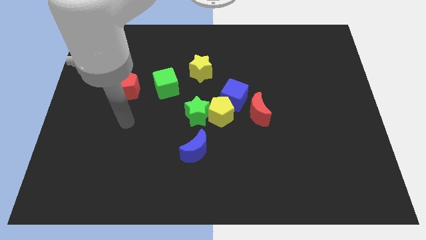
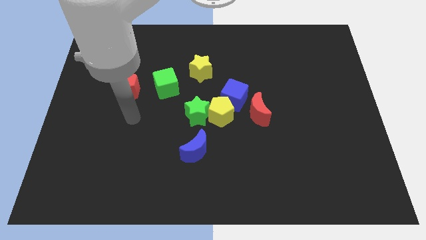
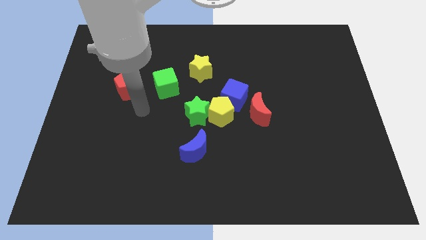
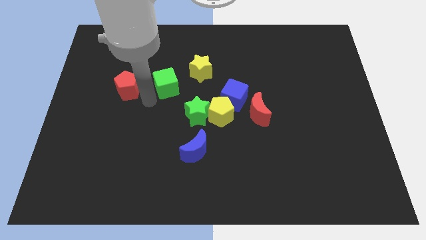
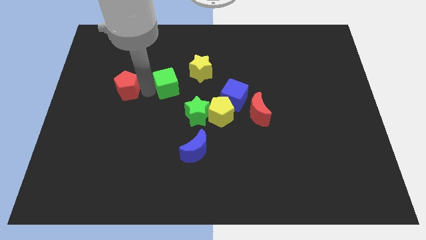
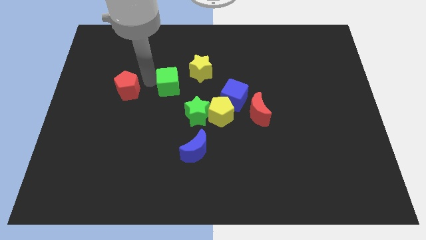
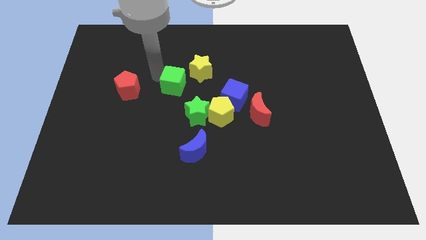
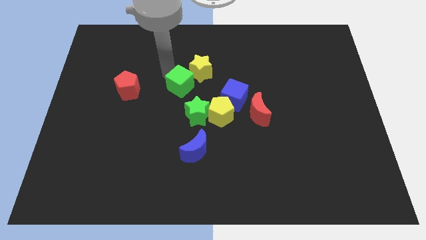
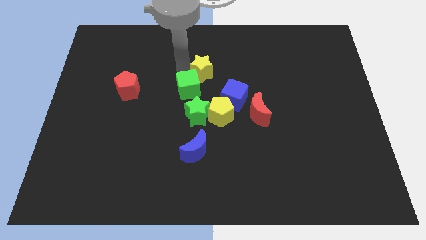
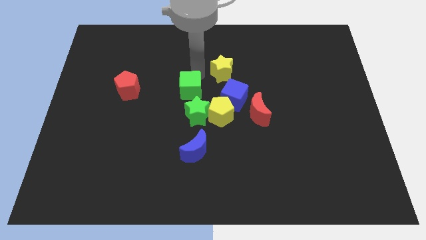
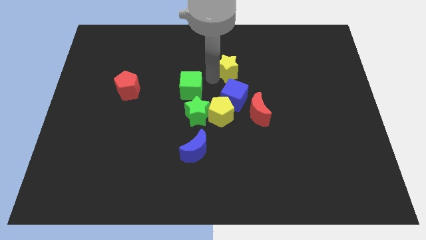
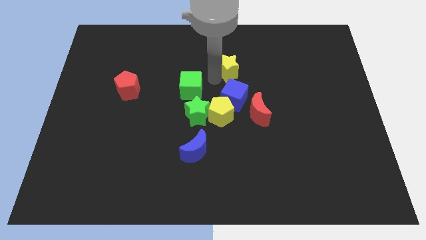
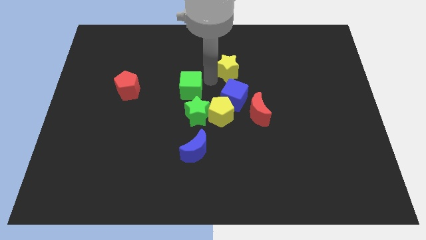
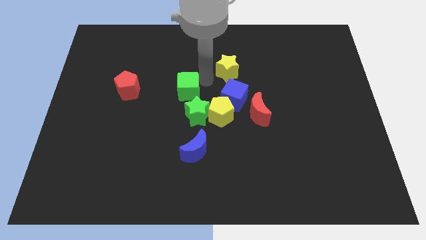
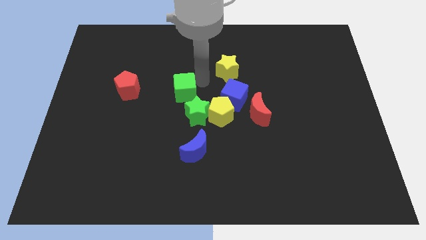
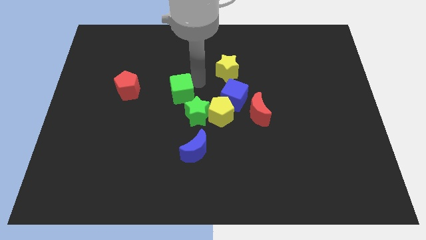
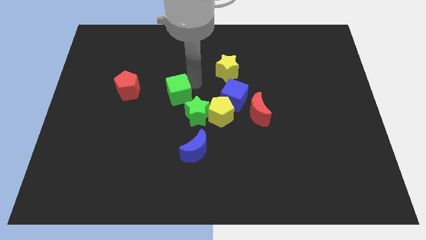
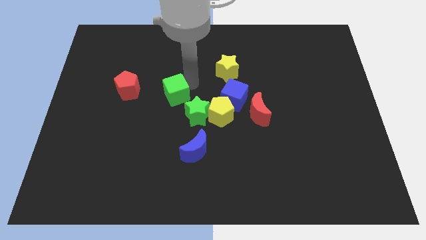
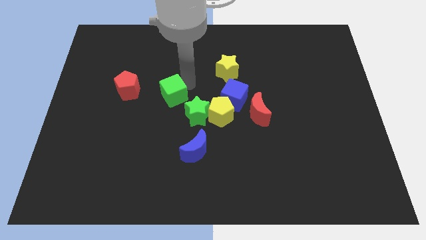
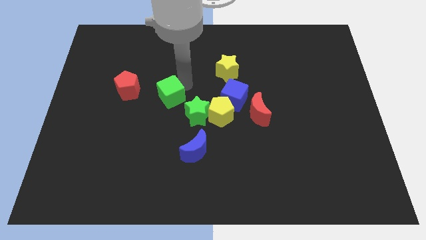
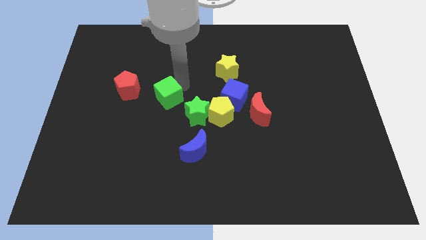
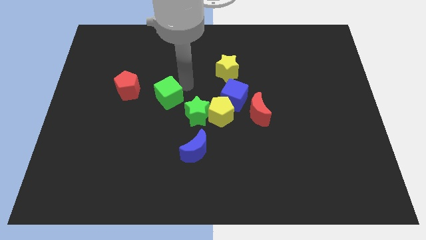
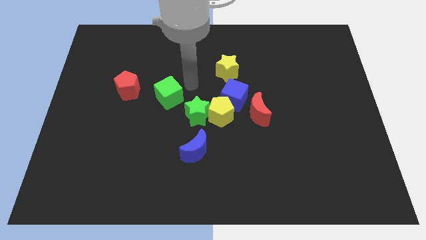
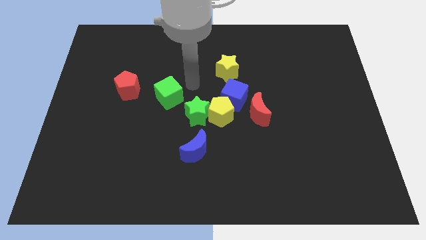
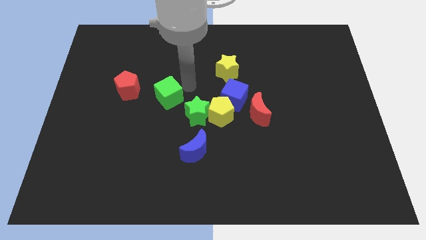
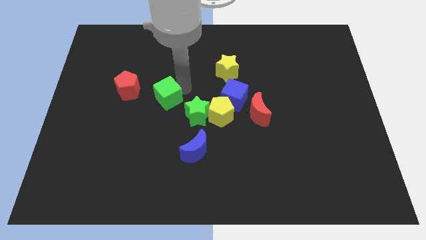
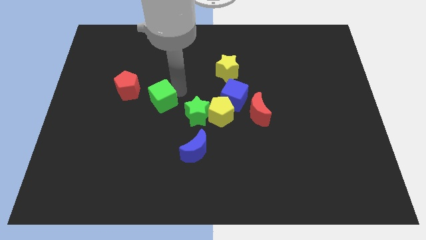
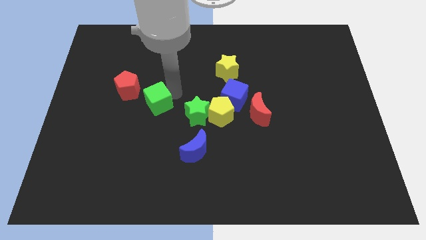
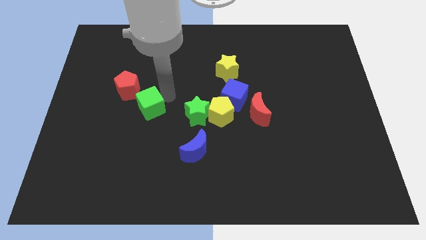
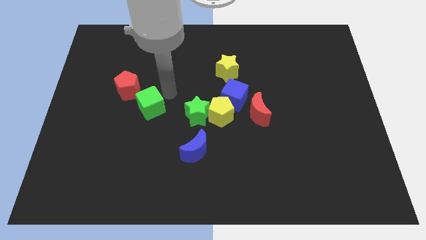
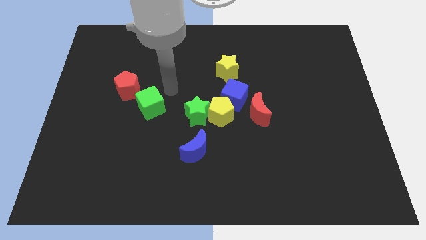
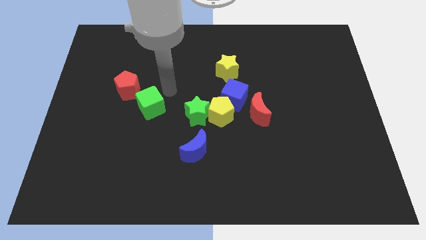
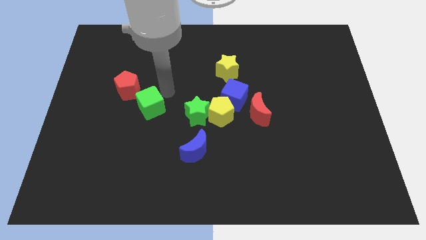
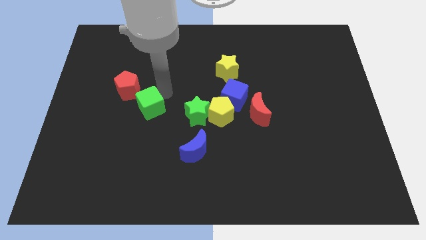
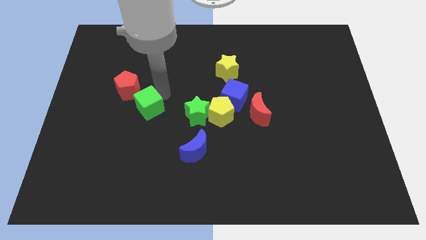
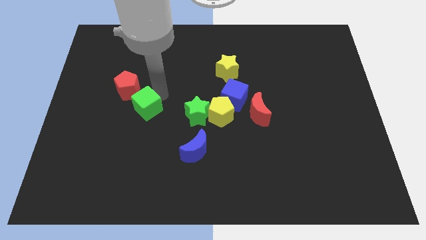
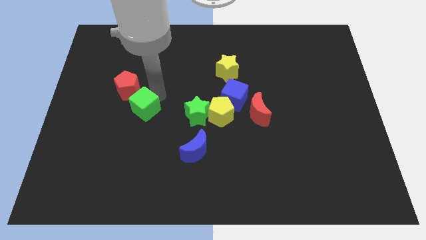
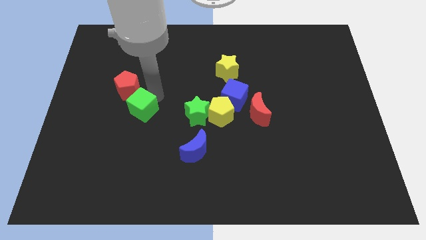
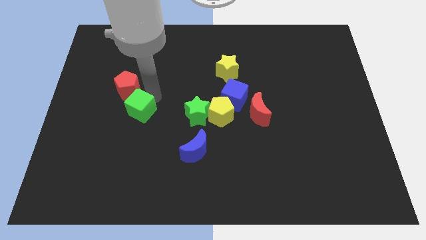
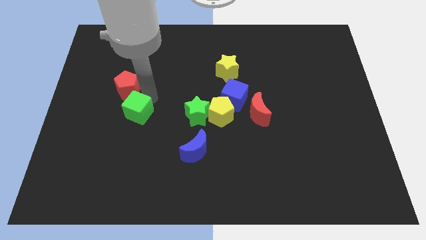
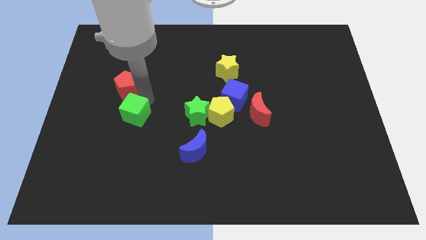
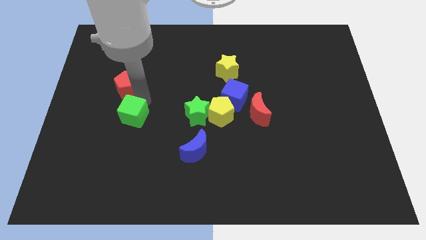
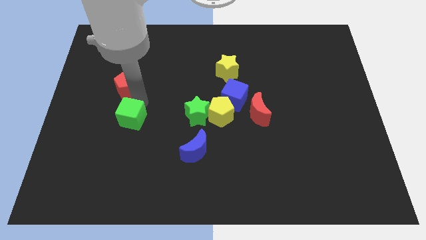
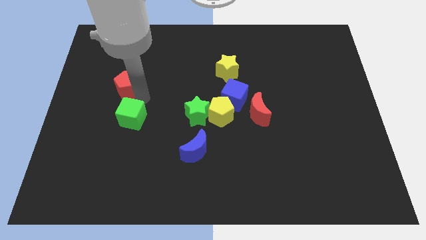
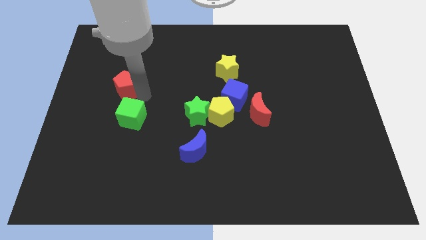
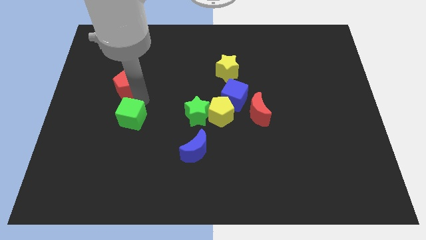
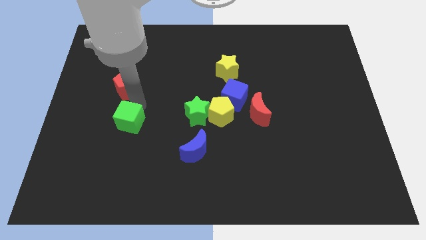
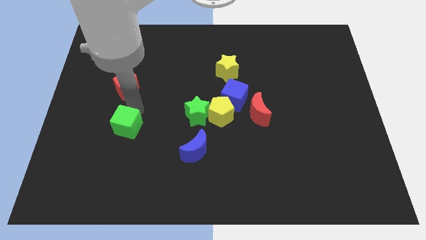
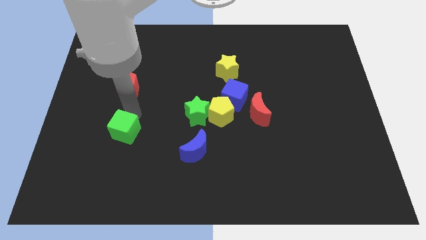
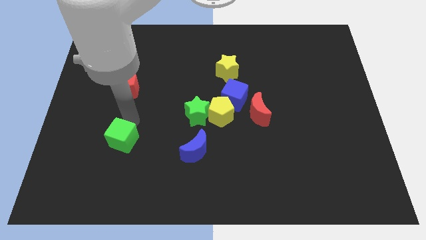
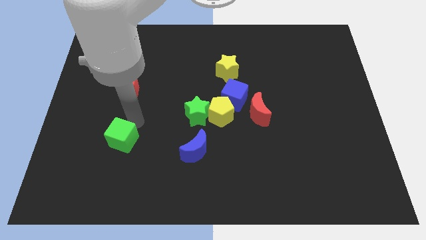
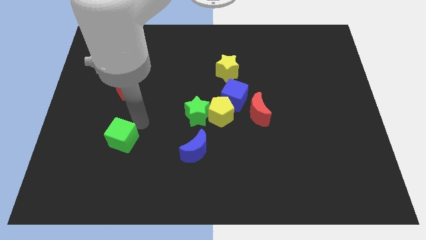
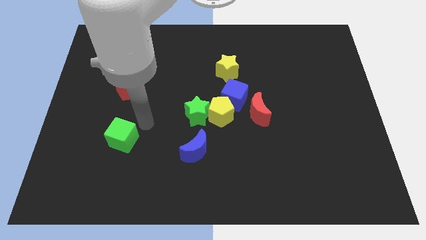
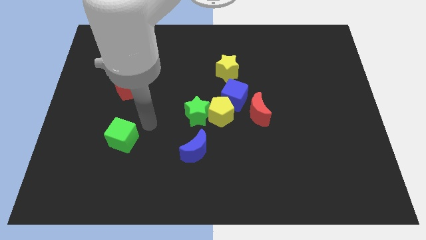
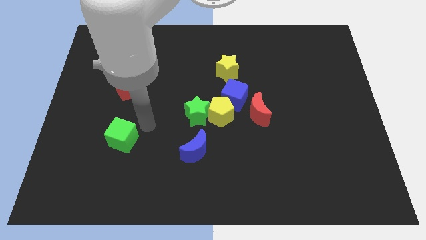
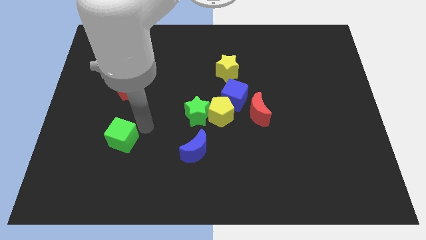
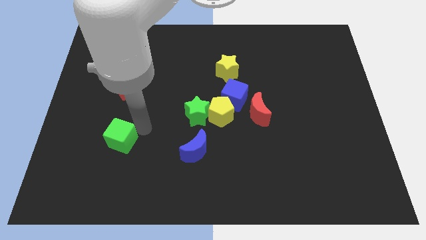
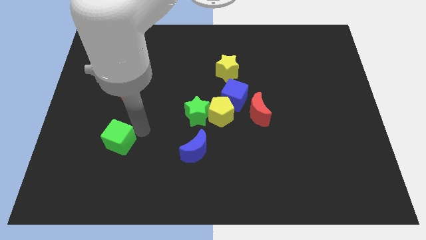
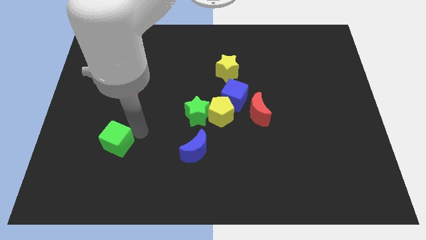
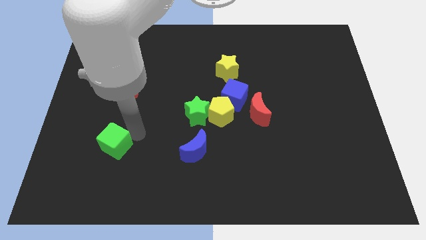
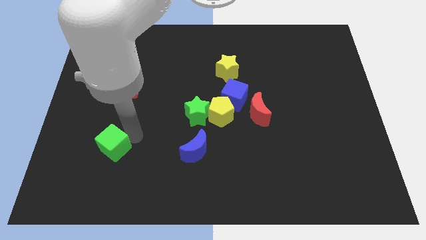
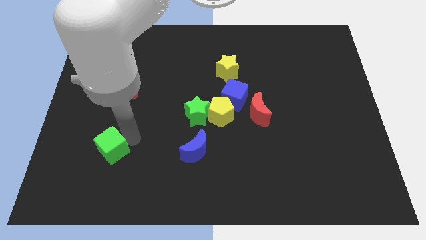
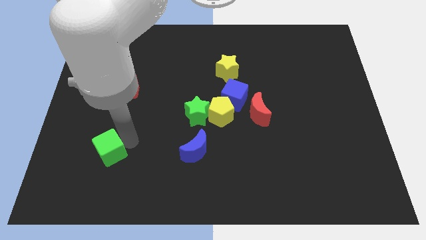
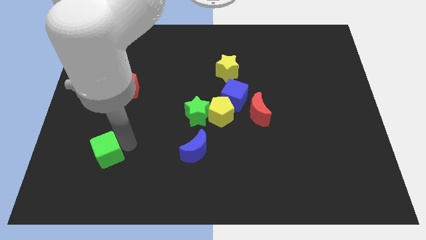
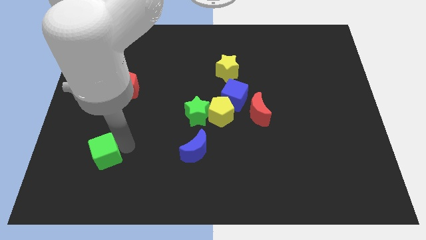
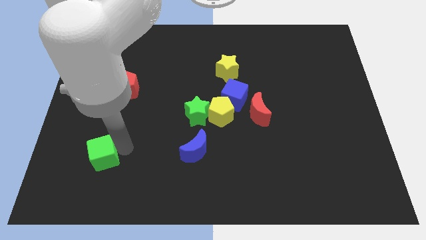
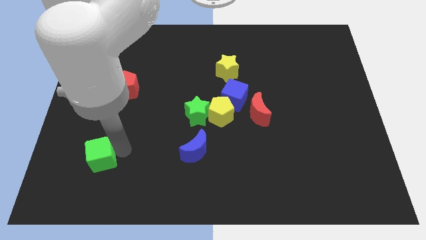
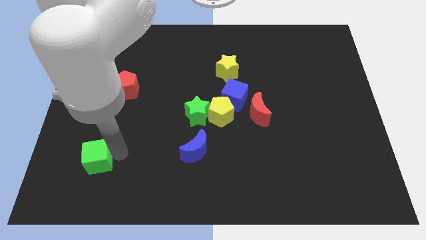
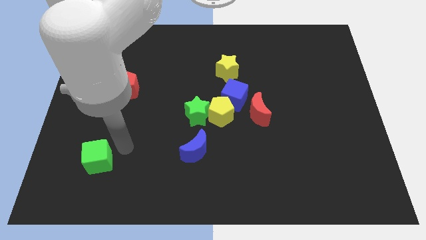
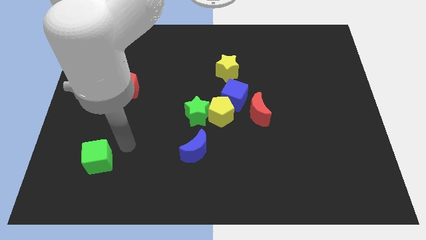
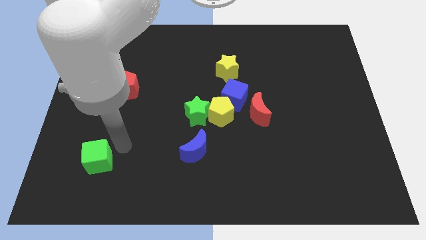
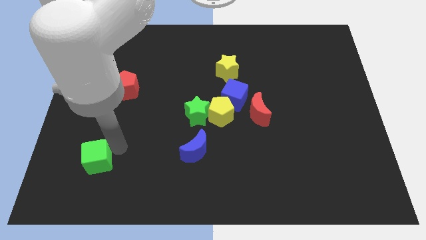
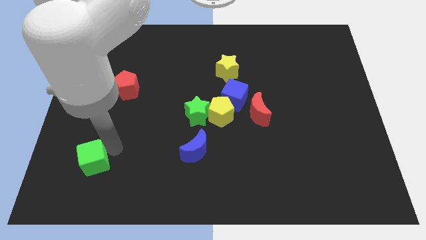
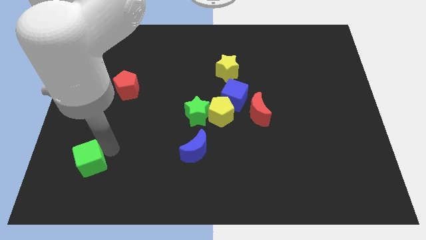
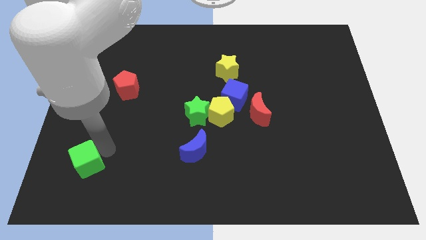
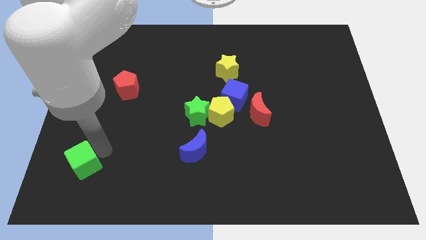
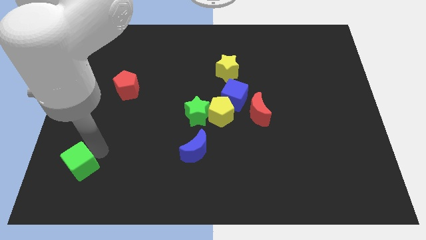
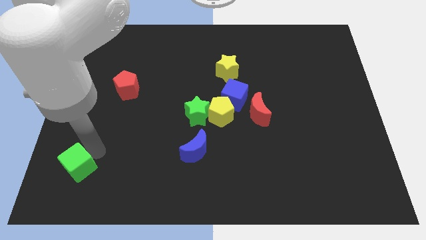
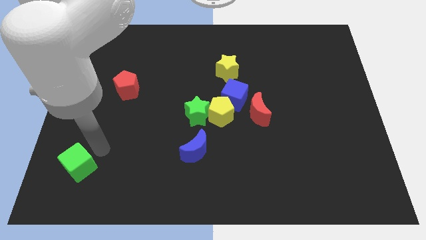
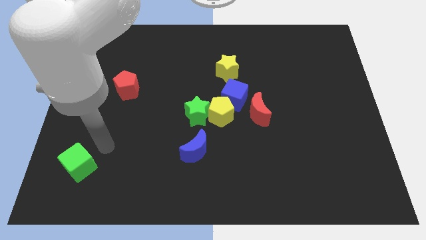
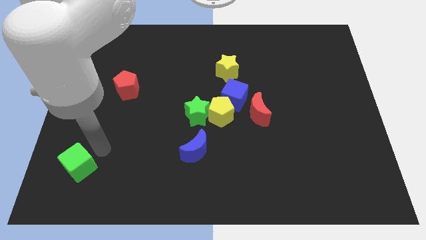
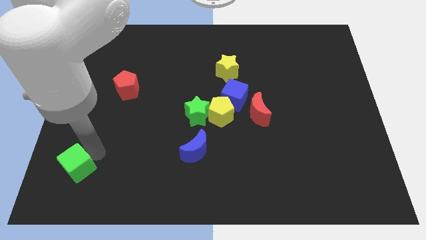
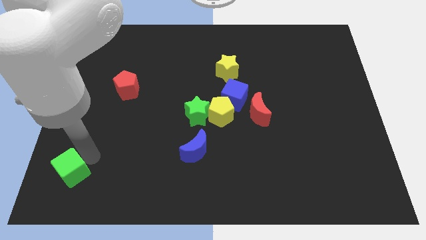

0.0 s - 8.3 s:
slide the green cube to the lower left corner

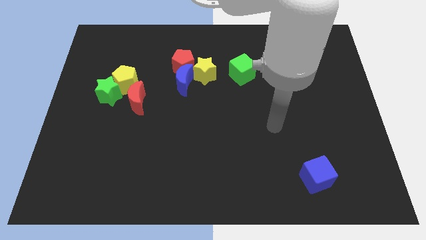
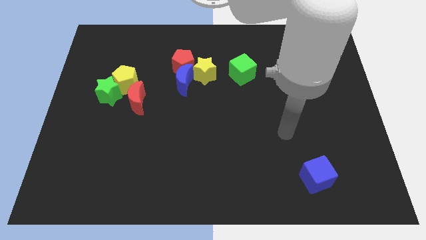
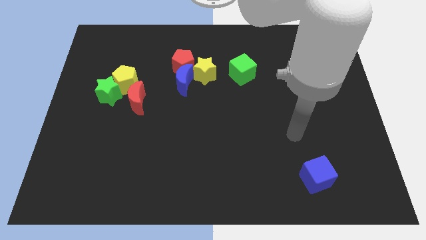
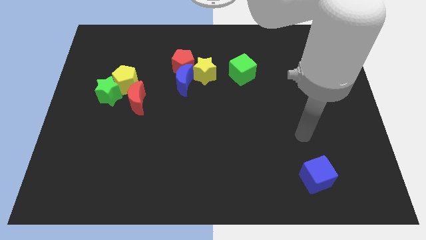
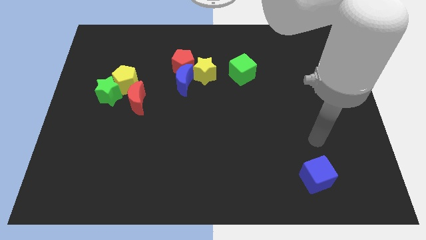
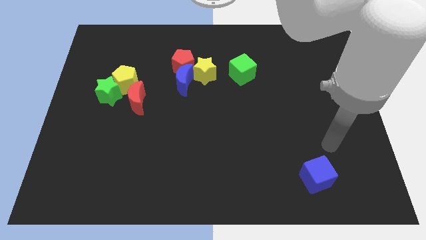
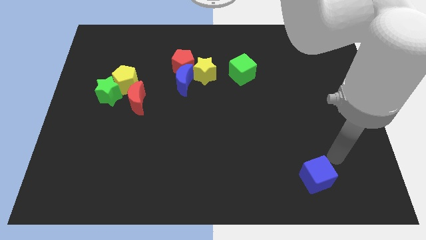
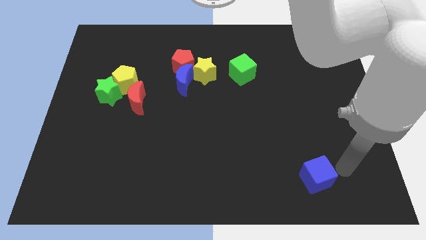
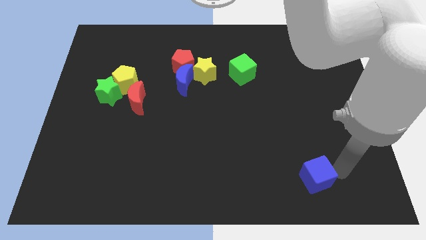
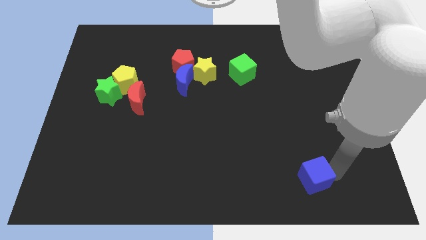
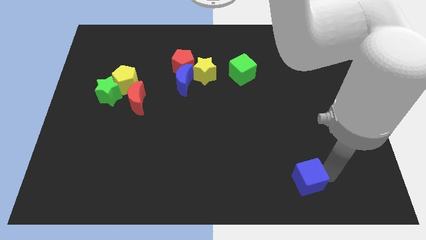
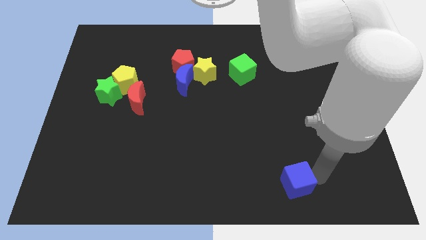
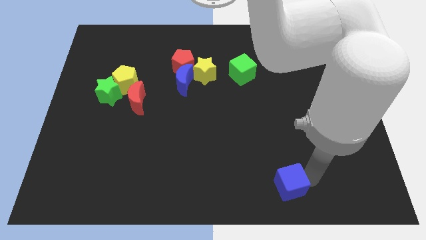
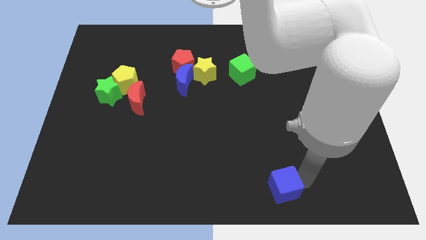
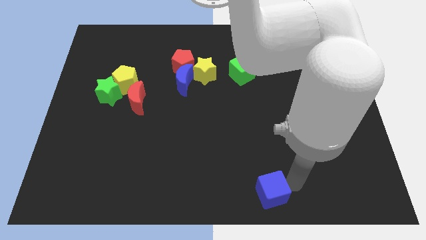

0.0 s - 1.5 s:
put the blue cube to the bottom side
